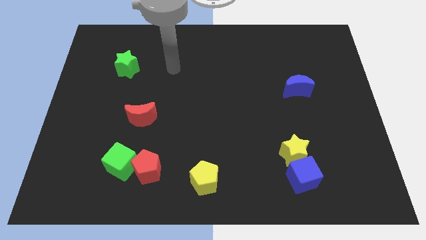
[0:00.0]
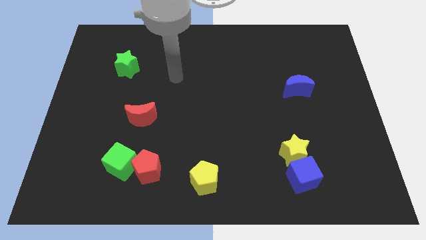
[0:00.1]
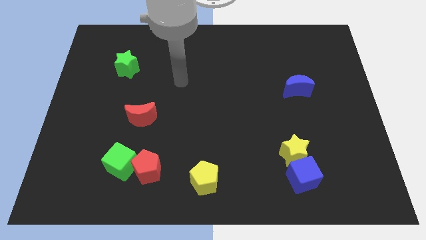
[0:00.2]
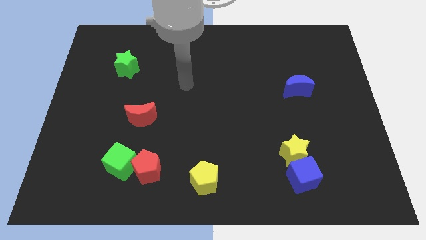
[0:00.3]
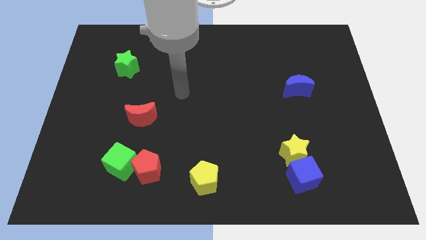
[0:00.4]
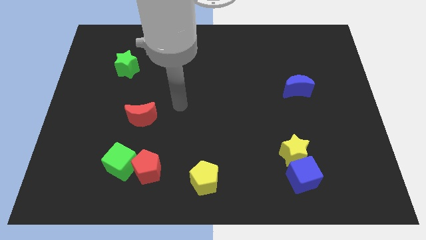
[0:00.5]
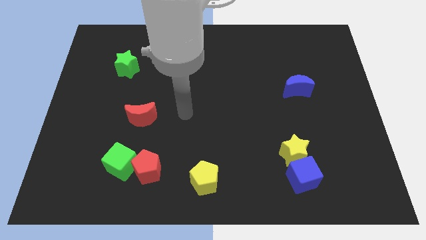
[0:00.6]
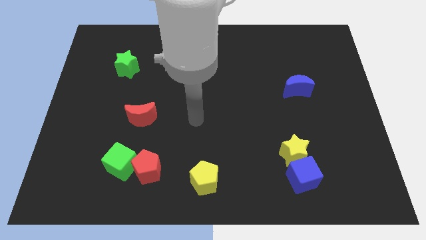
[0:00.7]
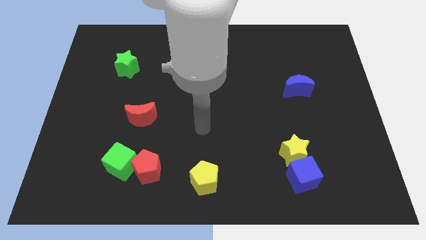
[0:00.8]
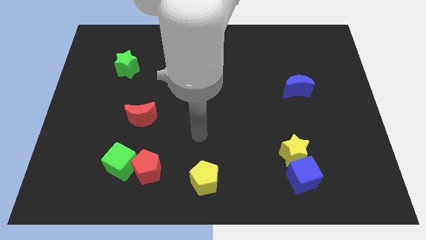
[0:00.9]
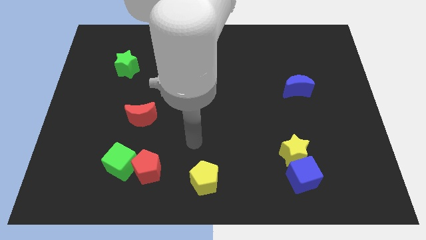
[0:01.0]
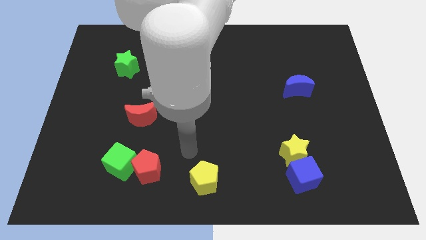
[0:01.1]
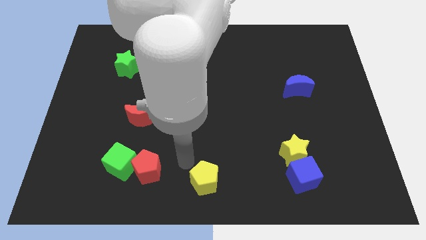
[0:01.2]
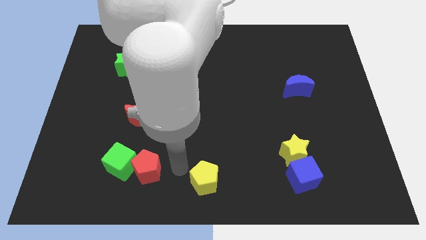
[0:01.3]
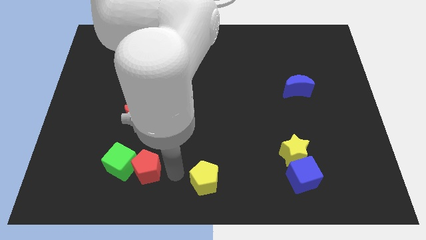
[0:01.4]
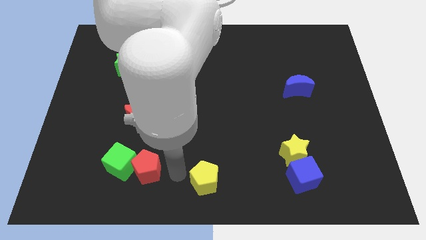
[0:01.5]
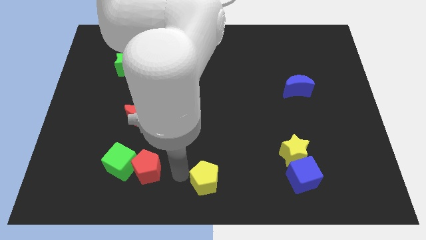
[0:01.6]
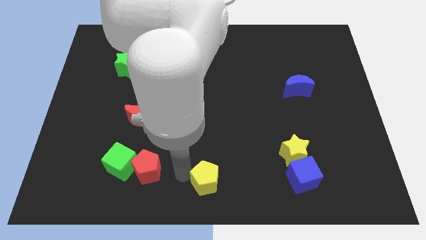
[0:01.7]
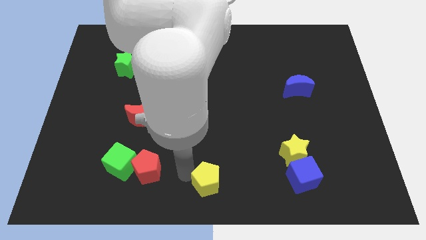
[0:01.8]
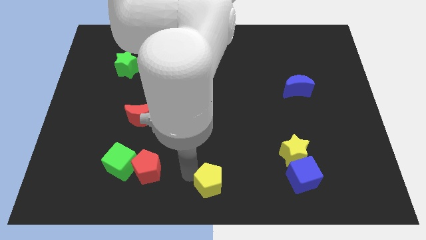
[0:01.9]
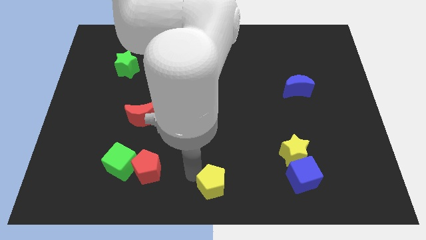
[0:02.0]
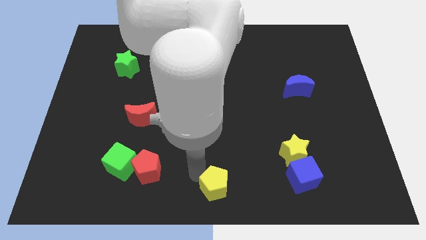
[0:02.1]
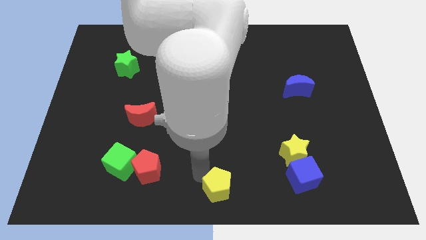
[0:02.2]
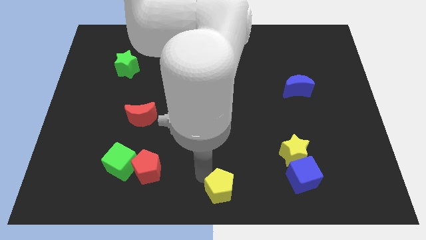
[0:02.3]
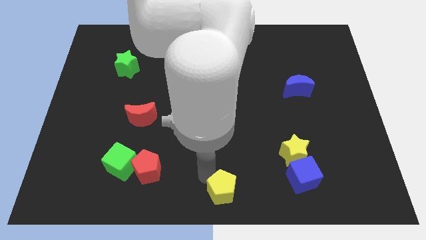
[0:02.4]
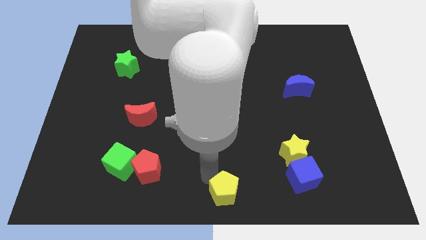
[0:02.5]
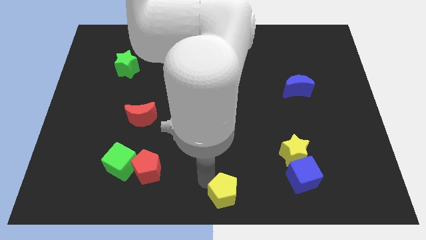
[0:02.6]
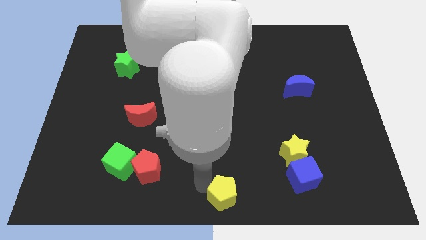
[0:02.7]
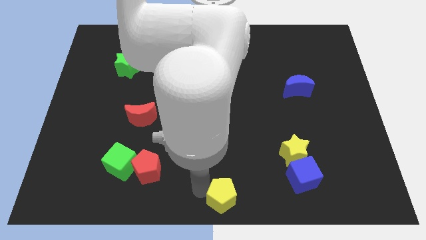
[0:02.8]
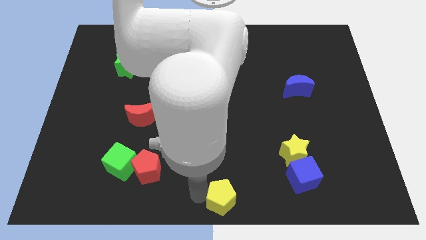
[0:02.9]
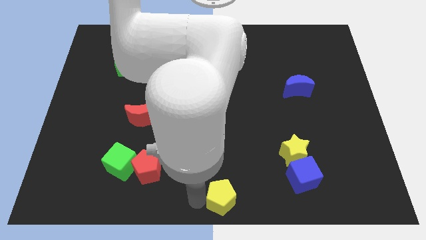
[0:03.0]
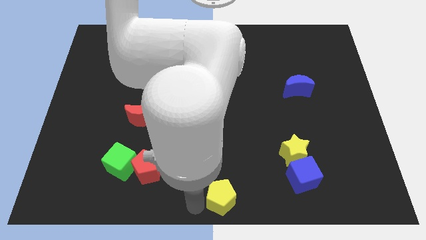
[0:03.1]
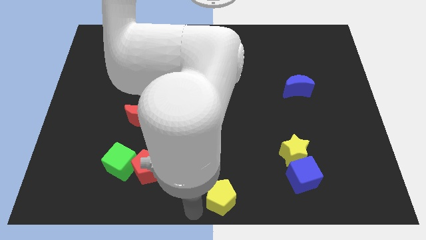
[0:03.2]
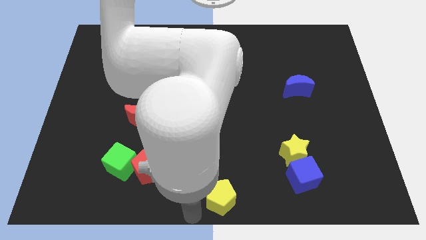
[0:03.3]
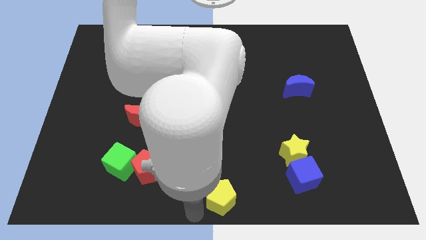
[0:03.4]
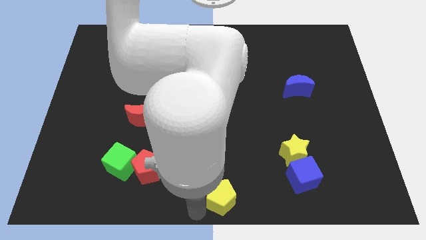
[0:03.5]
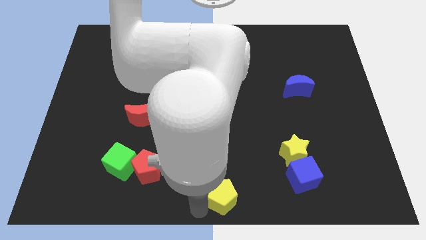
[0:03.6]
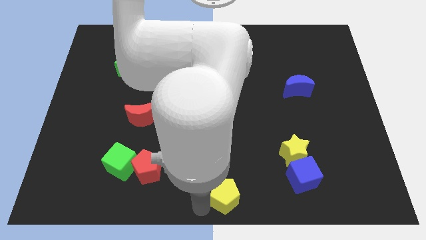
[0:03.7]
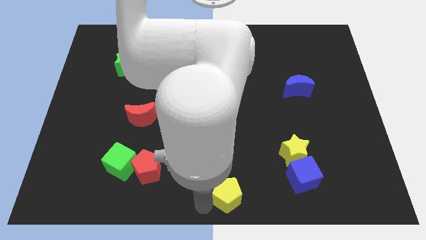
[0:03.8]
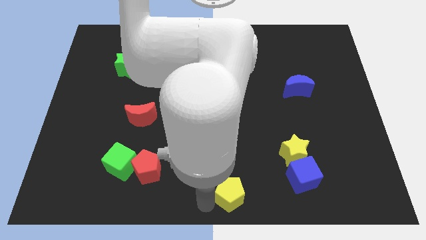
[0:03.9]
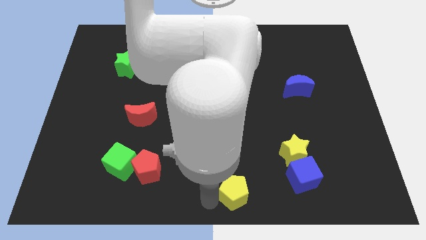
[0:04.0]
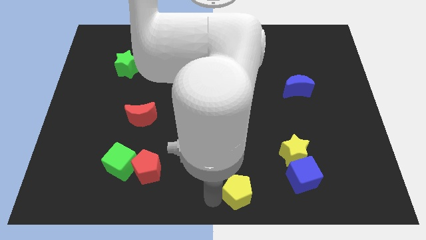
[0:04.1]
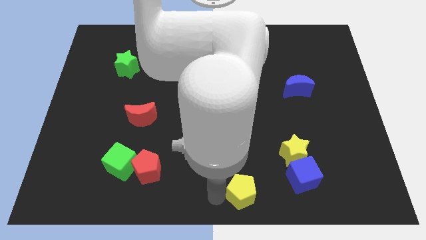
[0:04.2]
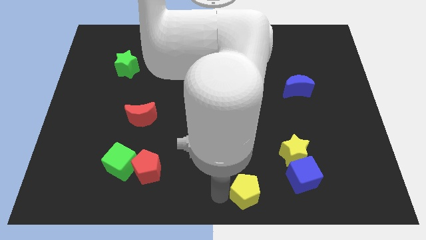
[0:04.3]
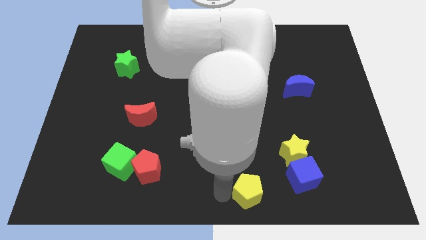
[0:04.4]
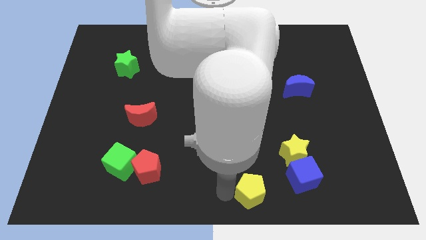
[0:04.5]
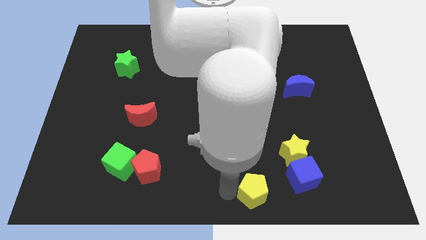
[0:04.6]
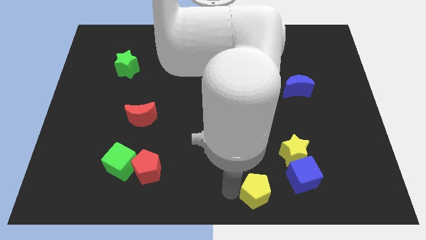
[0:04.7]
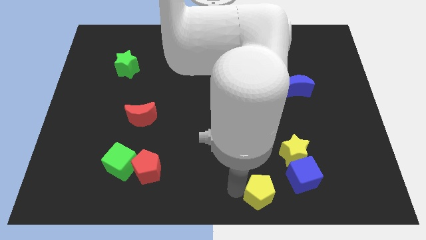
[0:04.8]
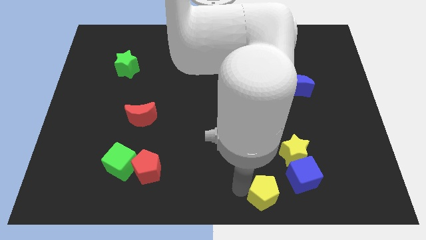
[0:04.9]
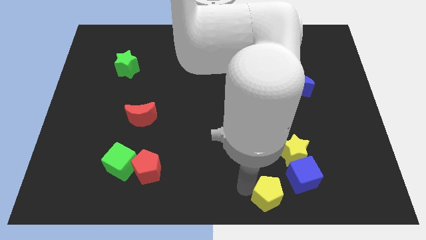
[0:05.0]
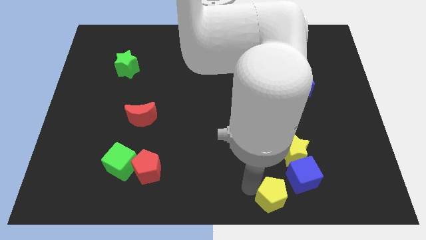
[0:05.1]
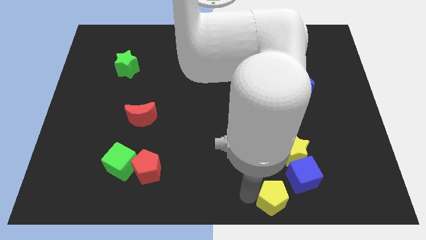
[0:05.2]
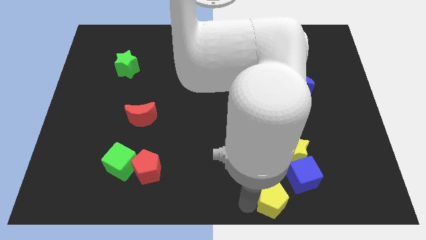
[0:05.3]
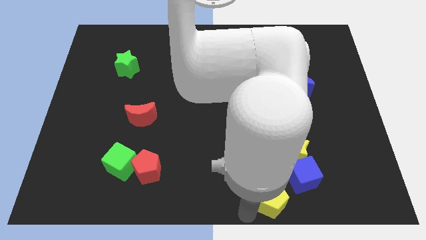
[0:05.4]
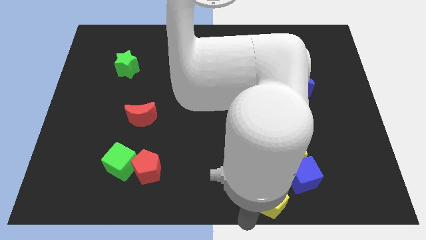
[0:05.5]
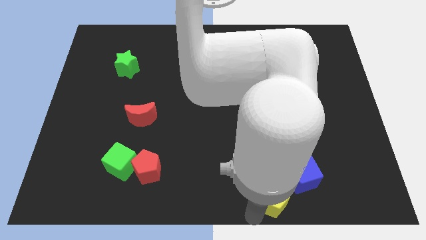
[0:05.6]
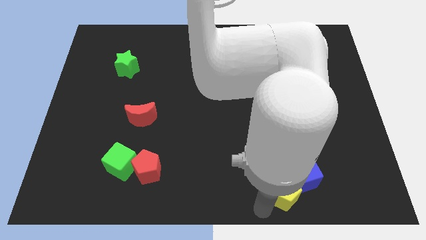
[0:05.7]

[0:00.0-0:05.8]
move the yellow pentagon to the blue cube
